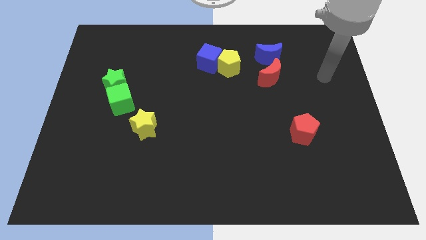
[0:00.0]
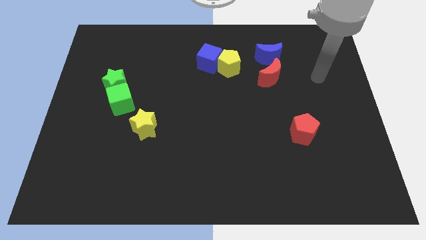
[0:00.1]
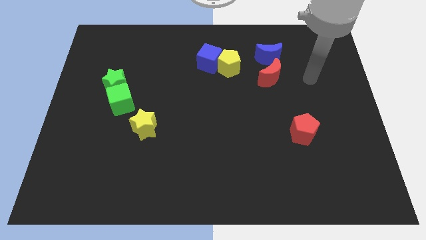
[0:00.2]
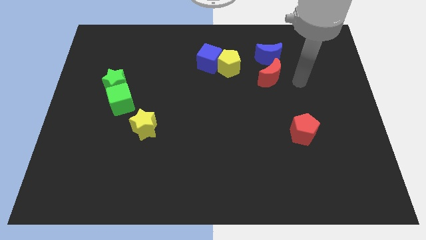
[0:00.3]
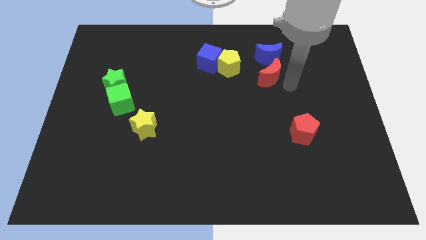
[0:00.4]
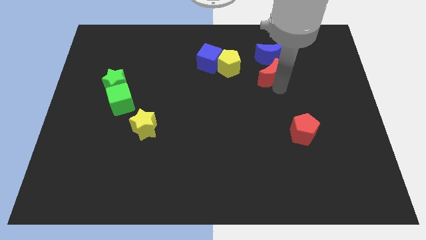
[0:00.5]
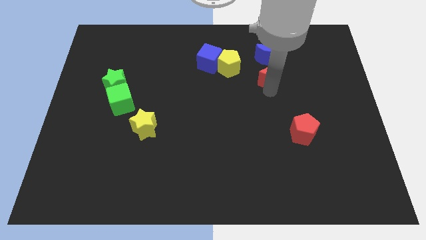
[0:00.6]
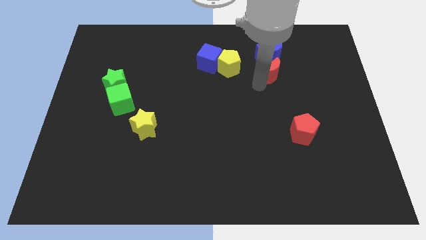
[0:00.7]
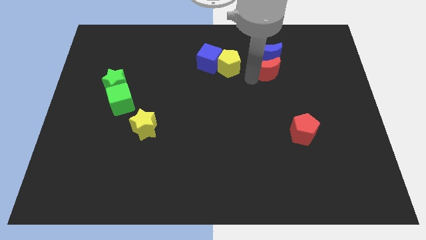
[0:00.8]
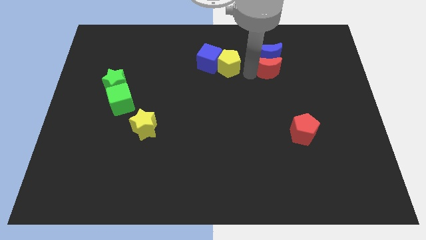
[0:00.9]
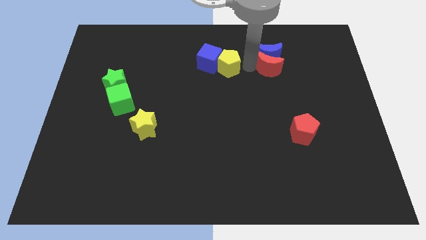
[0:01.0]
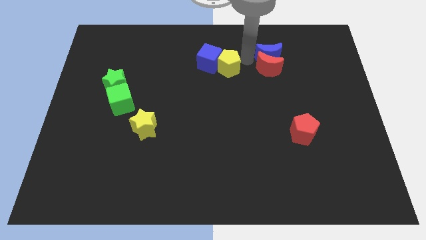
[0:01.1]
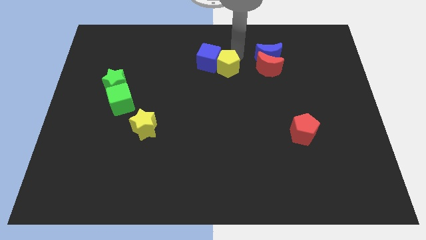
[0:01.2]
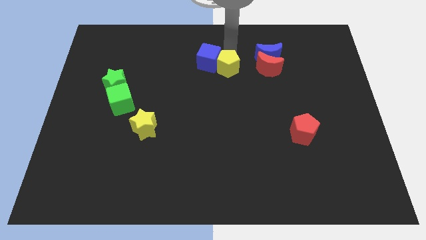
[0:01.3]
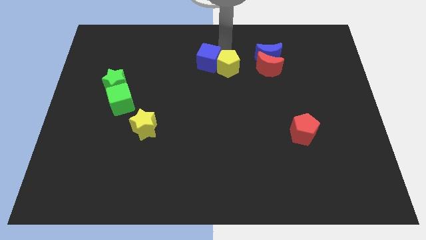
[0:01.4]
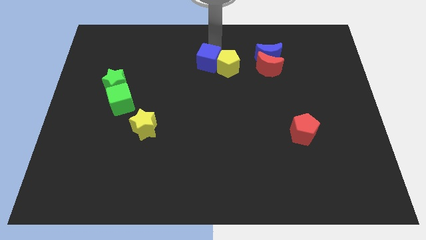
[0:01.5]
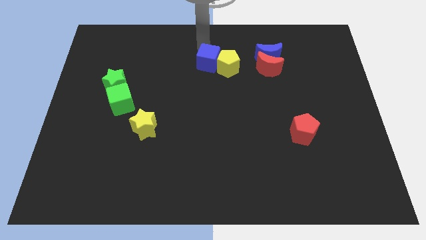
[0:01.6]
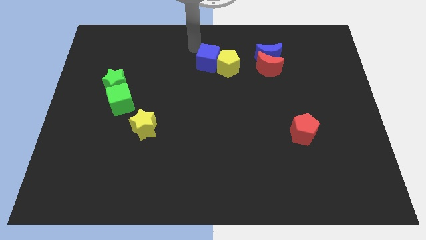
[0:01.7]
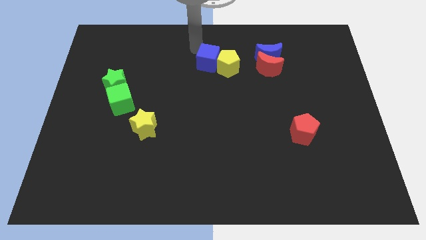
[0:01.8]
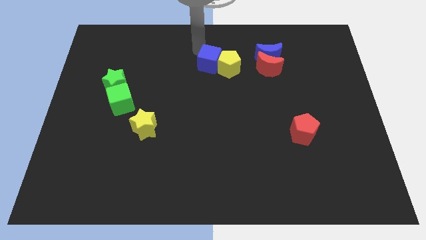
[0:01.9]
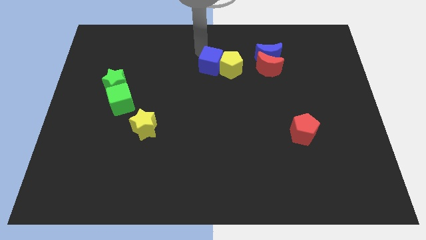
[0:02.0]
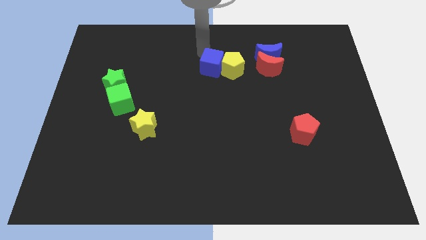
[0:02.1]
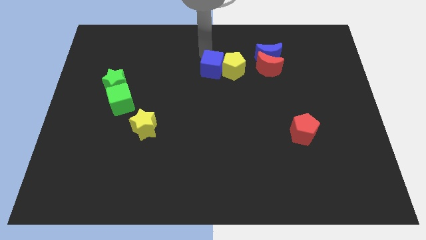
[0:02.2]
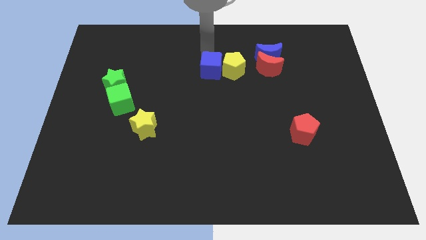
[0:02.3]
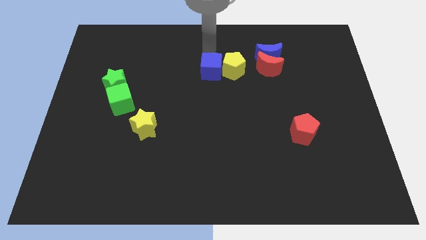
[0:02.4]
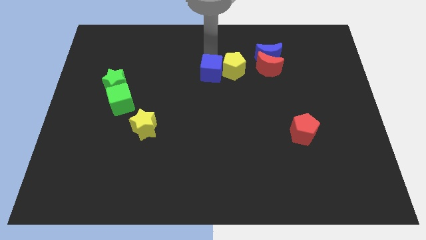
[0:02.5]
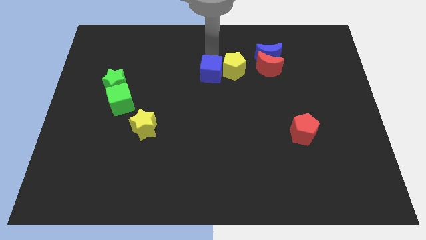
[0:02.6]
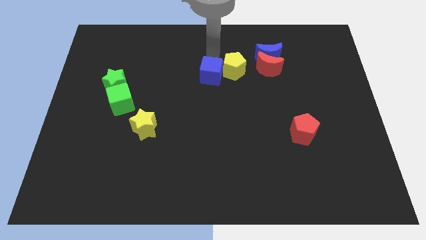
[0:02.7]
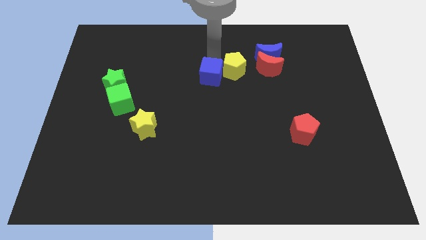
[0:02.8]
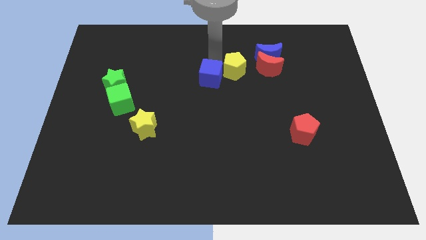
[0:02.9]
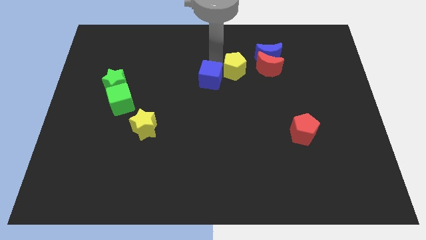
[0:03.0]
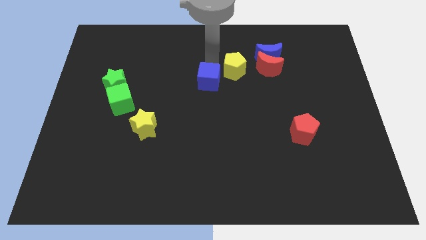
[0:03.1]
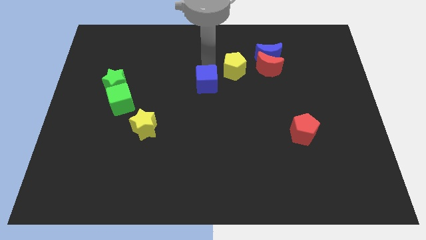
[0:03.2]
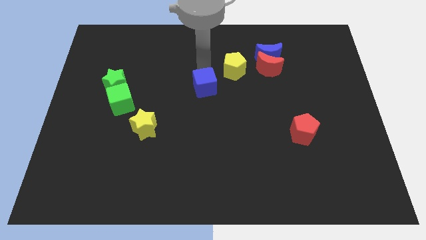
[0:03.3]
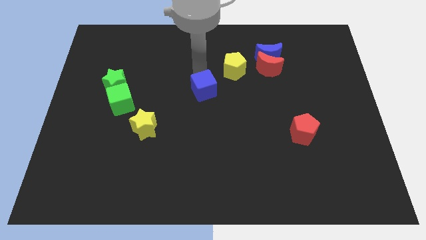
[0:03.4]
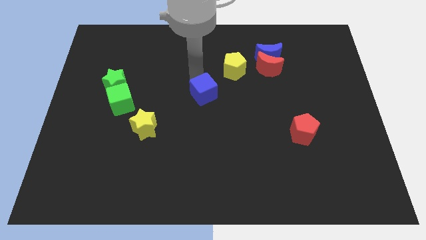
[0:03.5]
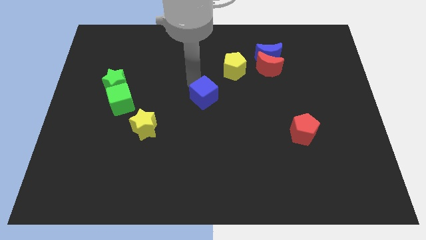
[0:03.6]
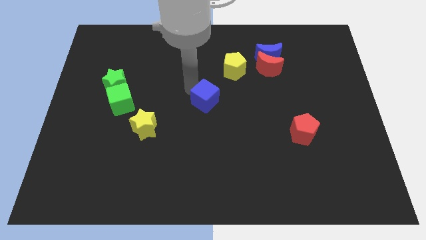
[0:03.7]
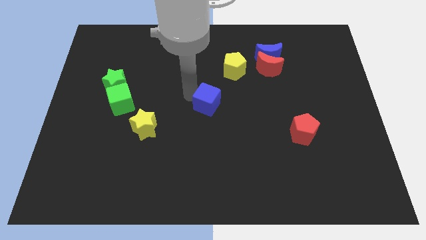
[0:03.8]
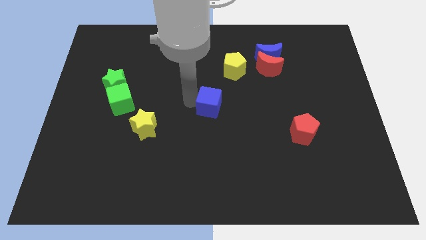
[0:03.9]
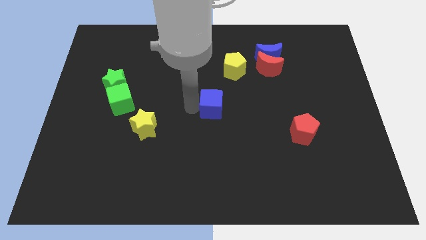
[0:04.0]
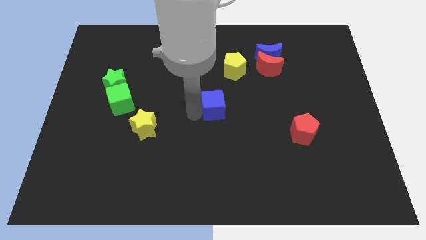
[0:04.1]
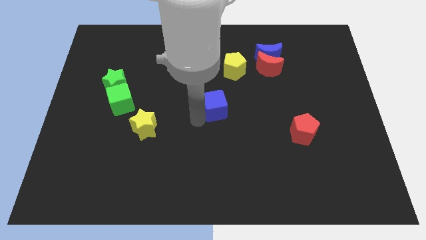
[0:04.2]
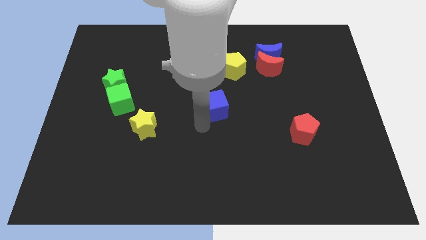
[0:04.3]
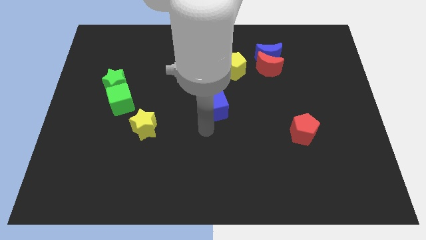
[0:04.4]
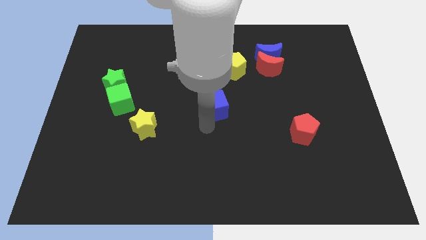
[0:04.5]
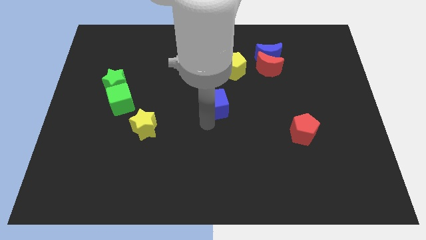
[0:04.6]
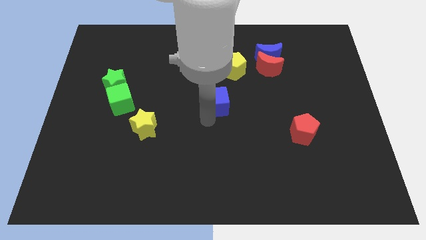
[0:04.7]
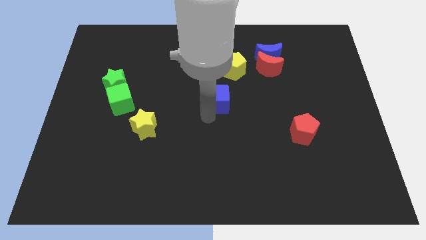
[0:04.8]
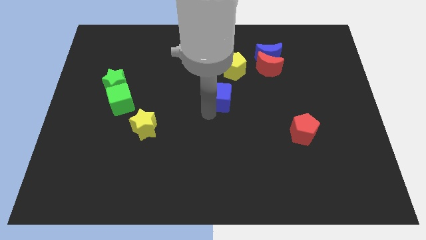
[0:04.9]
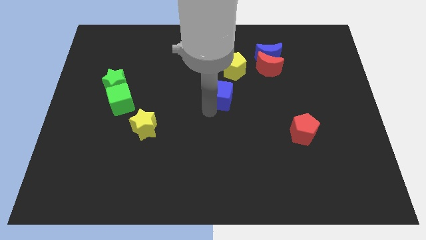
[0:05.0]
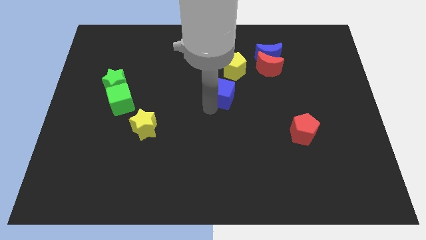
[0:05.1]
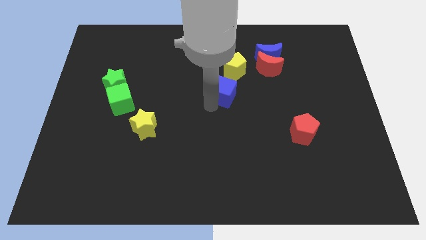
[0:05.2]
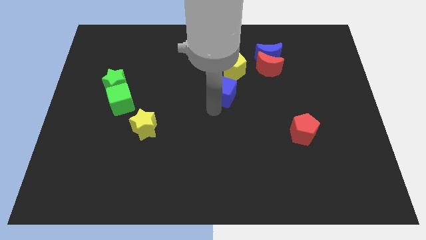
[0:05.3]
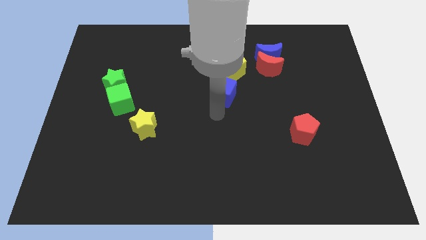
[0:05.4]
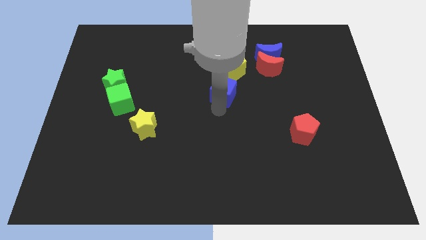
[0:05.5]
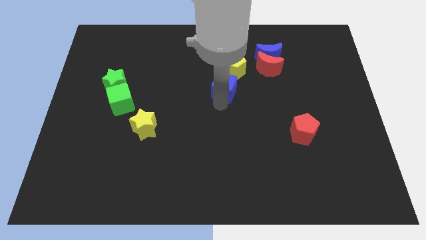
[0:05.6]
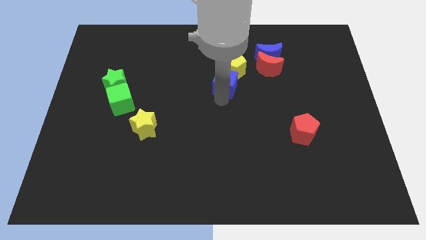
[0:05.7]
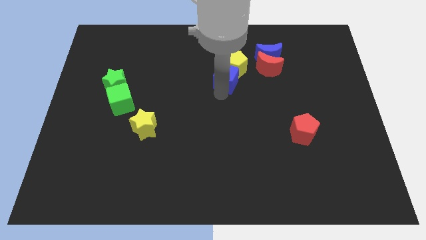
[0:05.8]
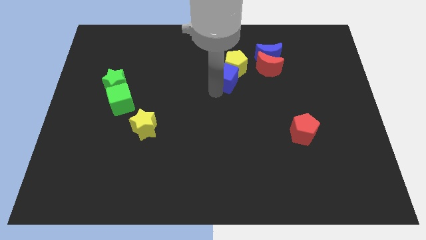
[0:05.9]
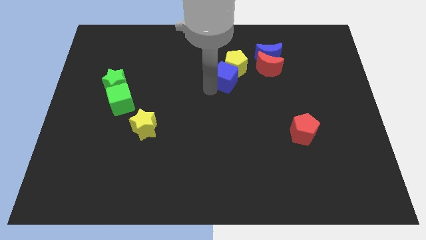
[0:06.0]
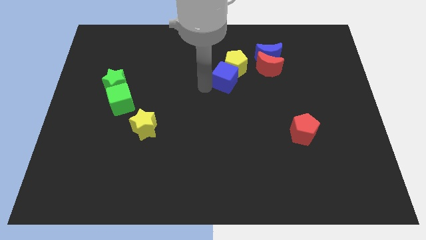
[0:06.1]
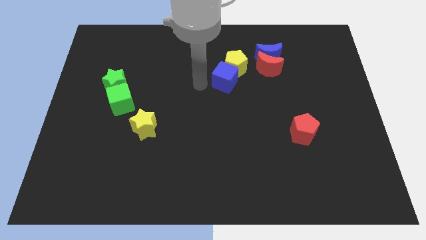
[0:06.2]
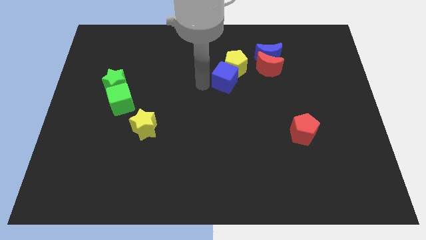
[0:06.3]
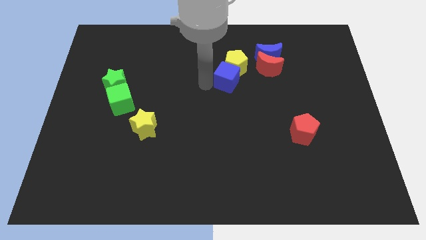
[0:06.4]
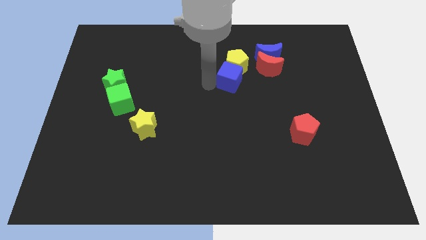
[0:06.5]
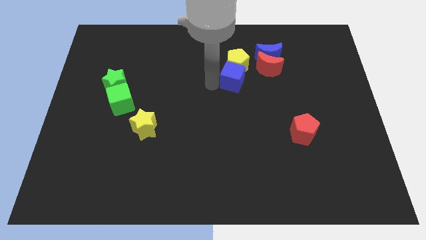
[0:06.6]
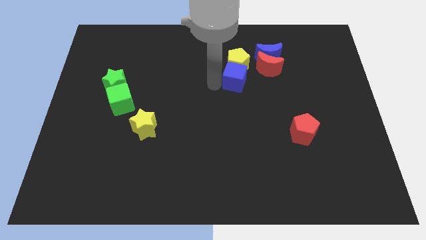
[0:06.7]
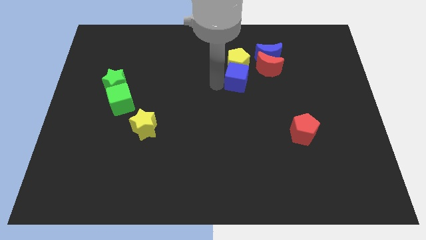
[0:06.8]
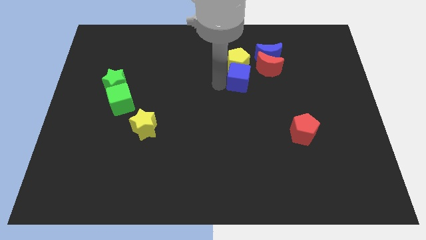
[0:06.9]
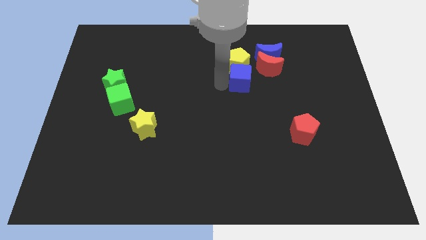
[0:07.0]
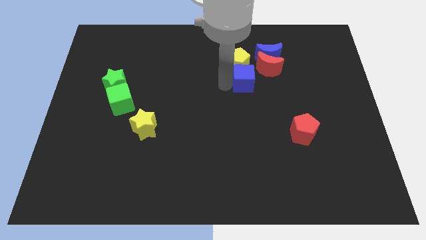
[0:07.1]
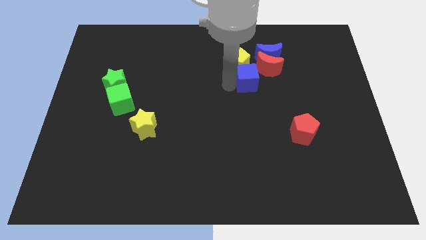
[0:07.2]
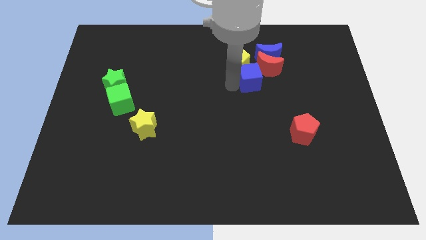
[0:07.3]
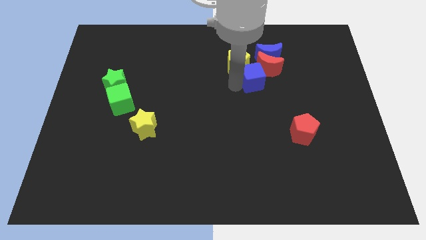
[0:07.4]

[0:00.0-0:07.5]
push the blue cube towards the red moon
